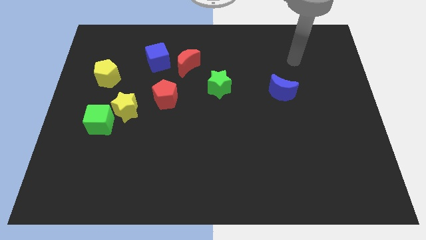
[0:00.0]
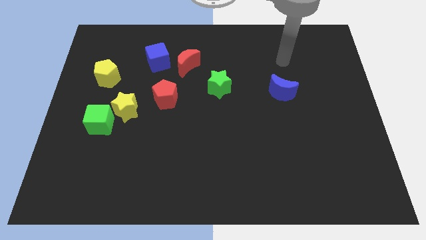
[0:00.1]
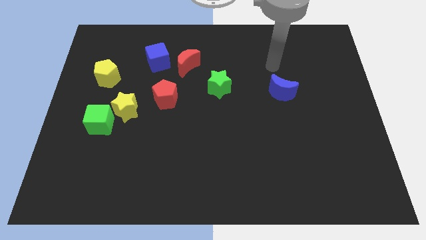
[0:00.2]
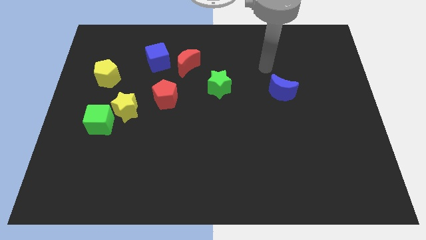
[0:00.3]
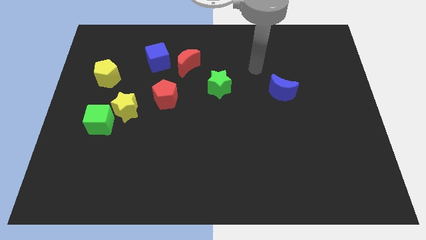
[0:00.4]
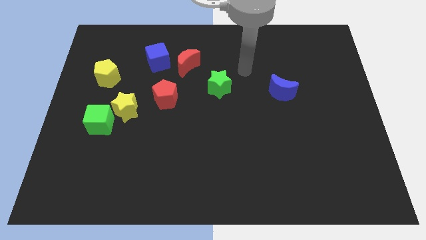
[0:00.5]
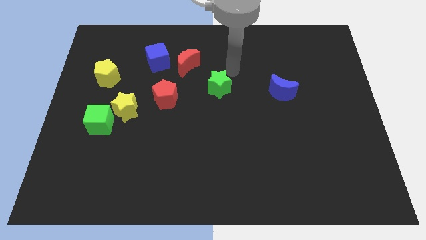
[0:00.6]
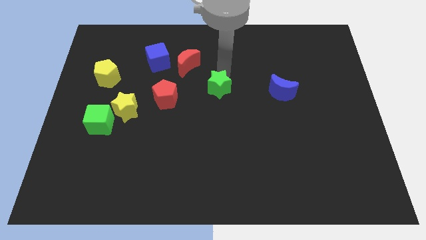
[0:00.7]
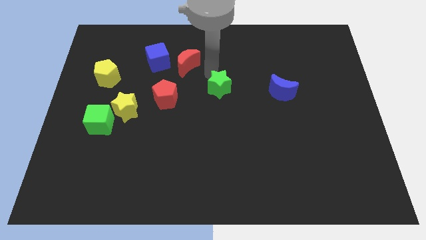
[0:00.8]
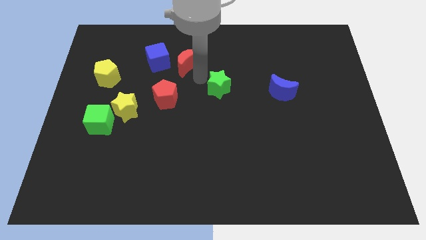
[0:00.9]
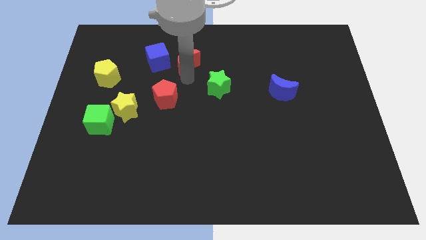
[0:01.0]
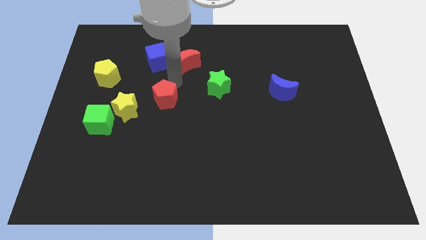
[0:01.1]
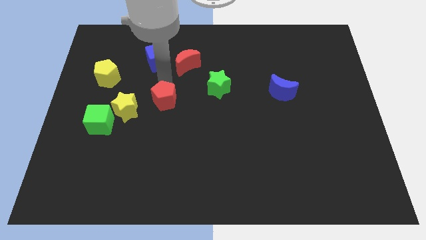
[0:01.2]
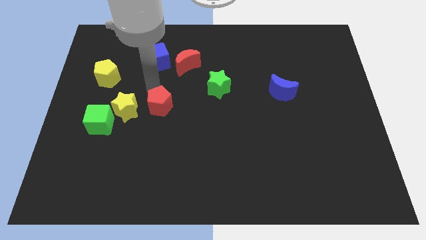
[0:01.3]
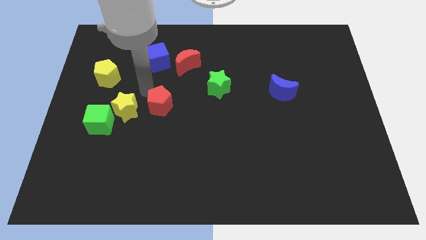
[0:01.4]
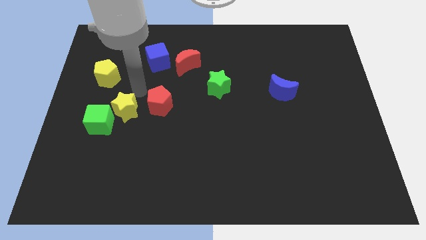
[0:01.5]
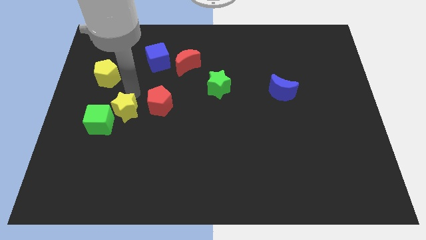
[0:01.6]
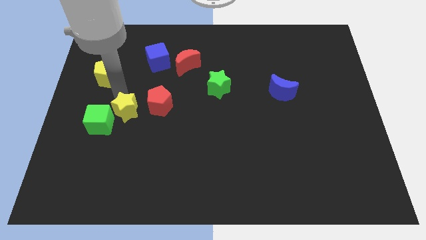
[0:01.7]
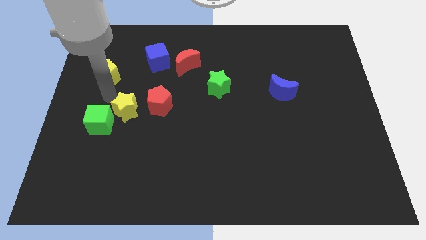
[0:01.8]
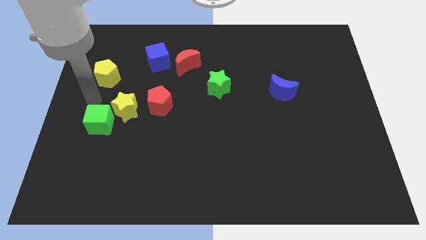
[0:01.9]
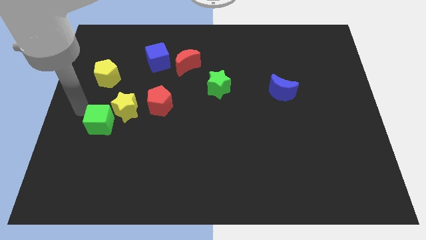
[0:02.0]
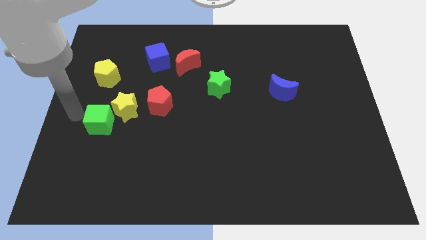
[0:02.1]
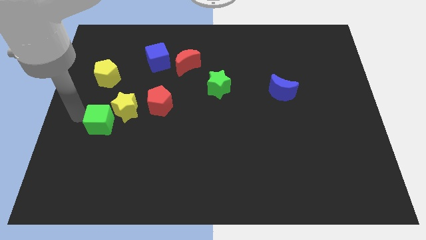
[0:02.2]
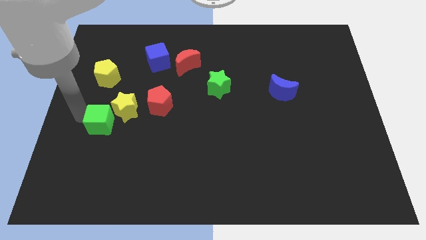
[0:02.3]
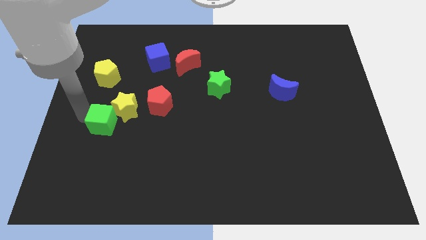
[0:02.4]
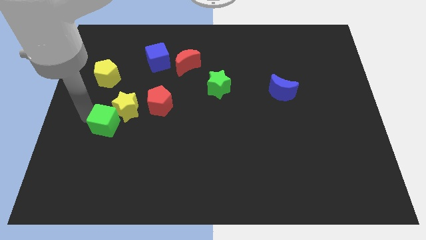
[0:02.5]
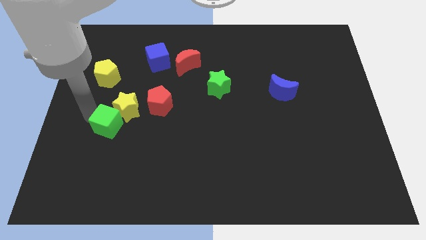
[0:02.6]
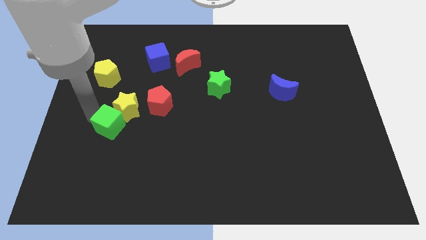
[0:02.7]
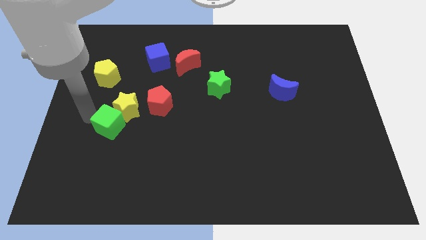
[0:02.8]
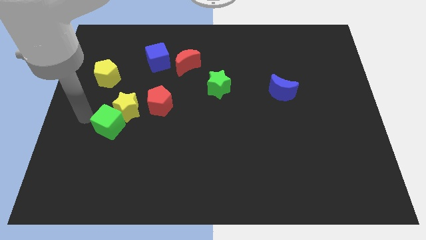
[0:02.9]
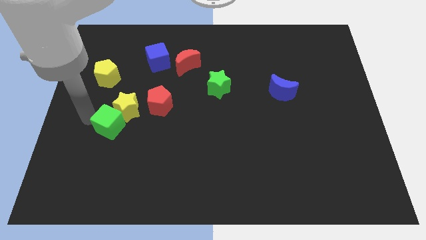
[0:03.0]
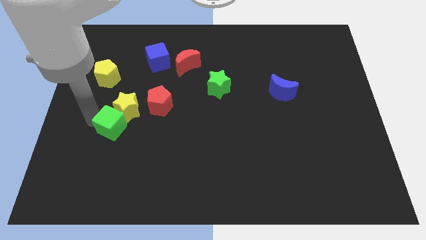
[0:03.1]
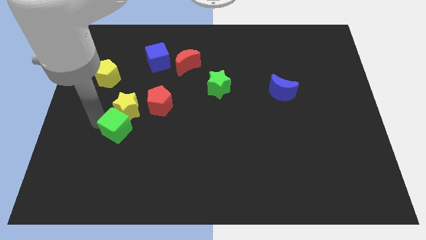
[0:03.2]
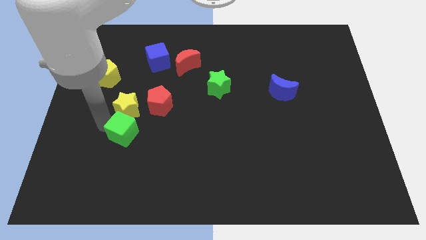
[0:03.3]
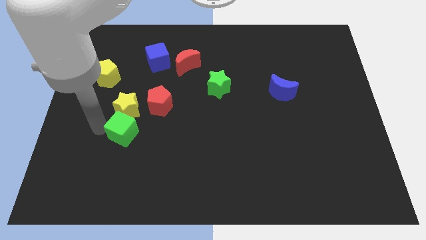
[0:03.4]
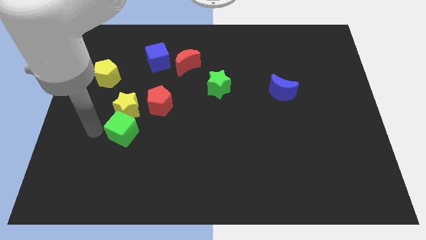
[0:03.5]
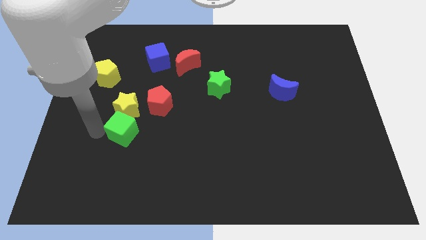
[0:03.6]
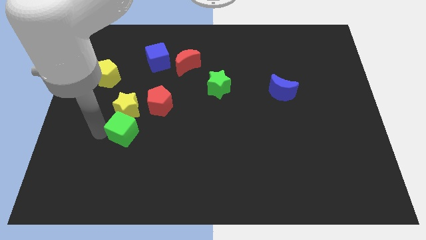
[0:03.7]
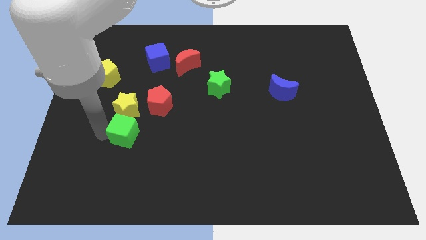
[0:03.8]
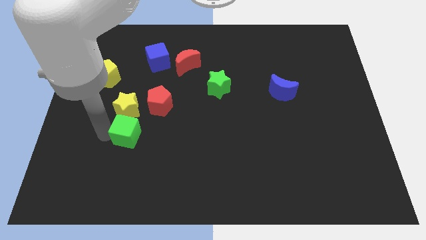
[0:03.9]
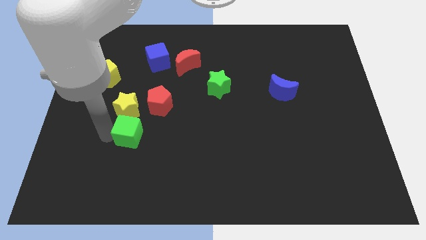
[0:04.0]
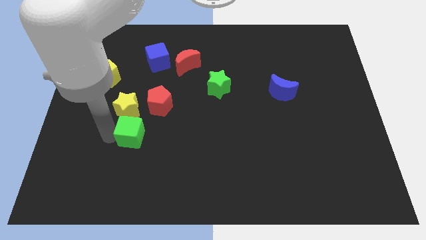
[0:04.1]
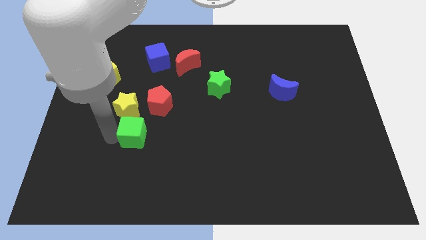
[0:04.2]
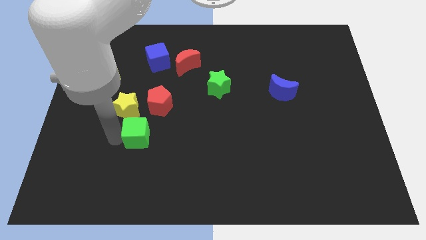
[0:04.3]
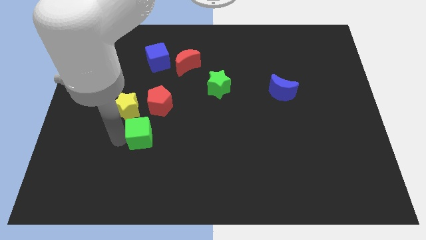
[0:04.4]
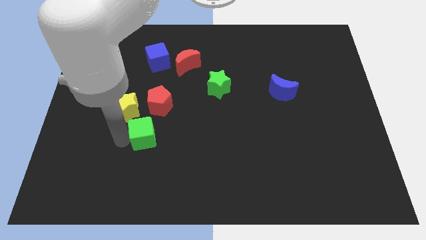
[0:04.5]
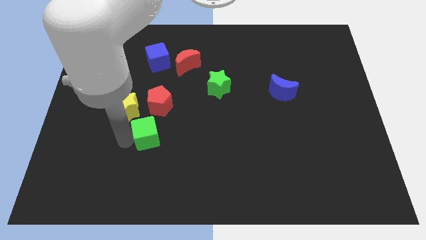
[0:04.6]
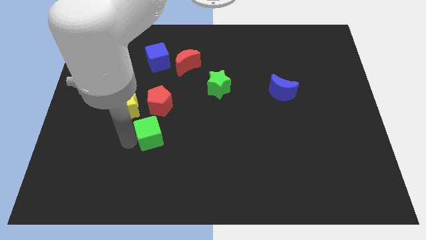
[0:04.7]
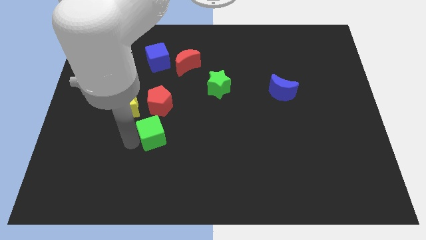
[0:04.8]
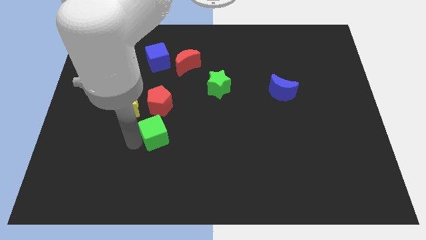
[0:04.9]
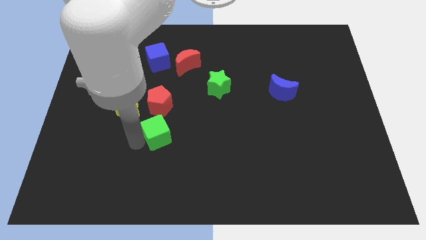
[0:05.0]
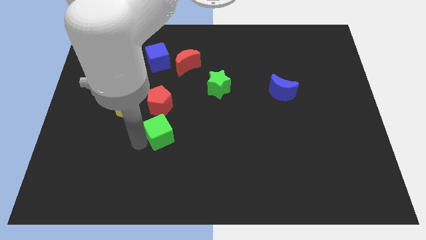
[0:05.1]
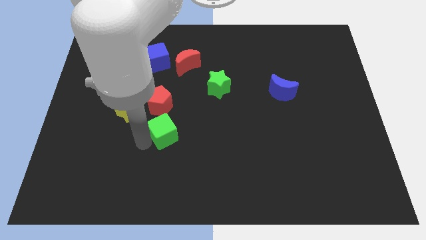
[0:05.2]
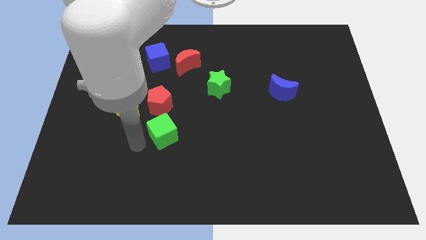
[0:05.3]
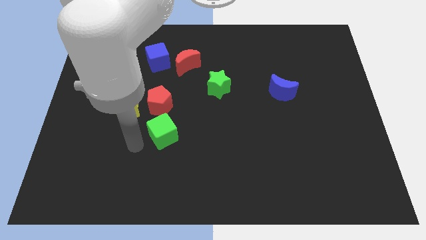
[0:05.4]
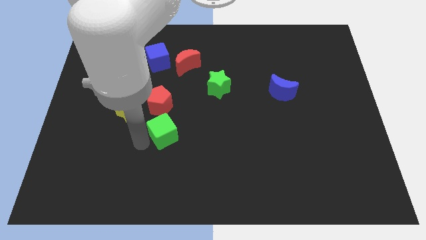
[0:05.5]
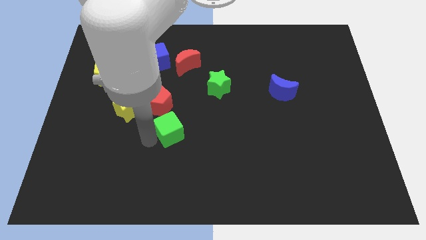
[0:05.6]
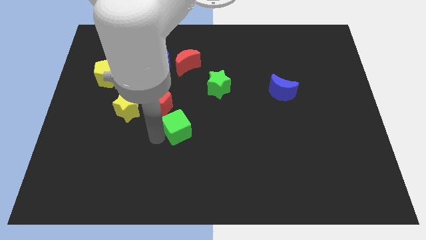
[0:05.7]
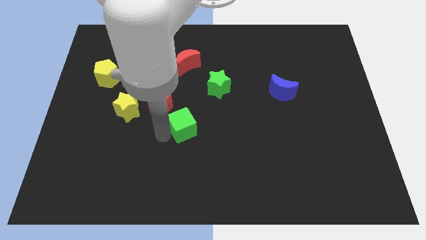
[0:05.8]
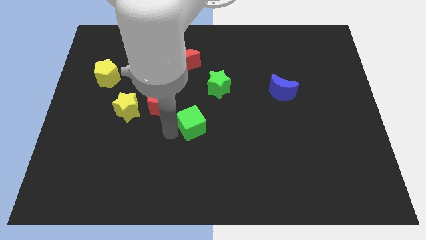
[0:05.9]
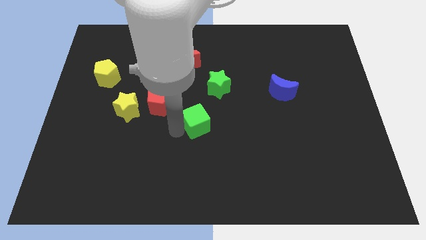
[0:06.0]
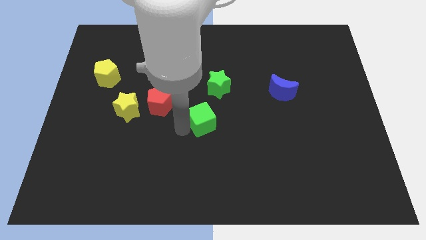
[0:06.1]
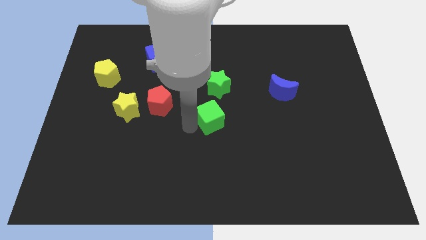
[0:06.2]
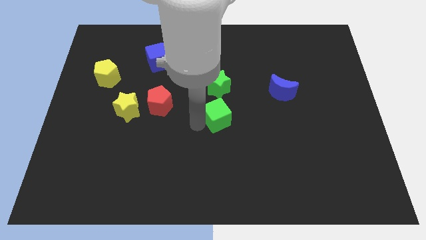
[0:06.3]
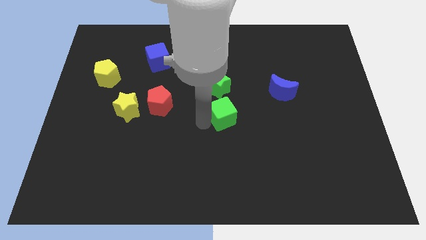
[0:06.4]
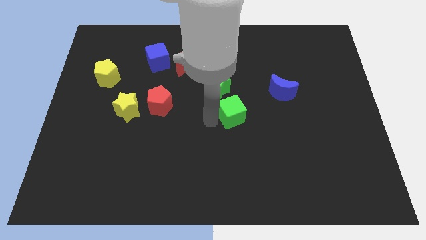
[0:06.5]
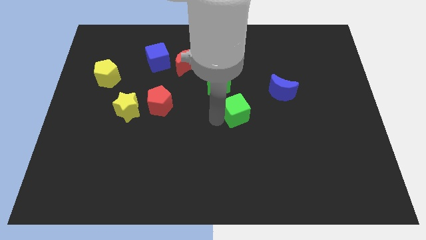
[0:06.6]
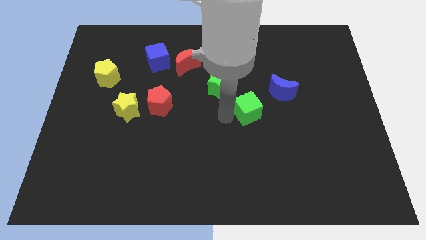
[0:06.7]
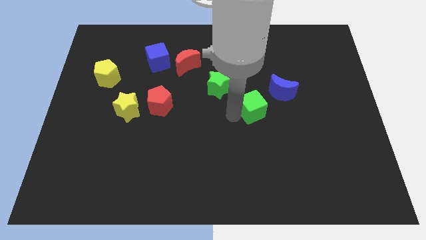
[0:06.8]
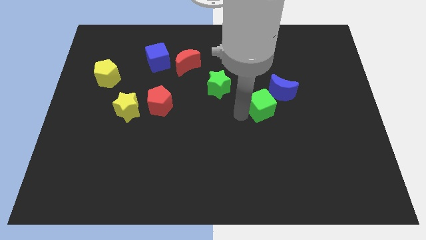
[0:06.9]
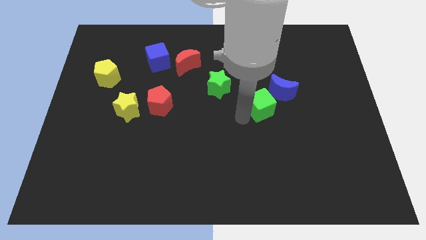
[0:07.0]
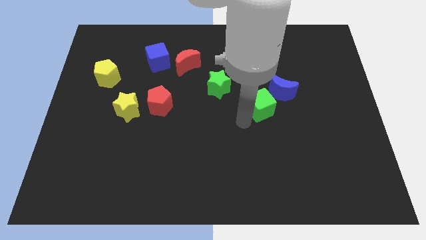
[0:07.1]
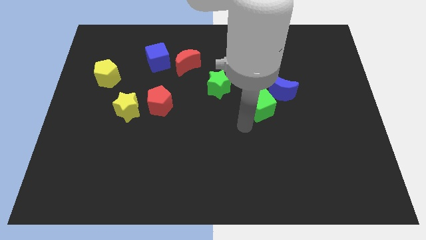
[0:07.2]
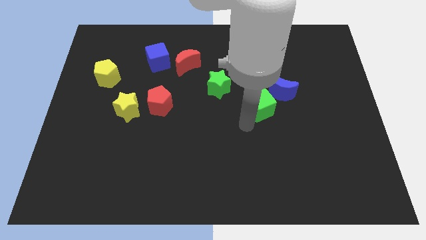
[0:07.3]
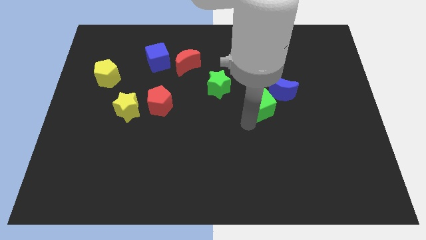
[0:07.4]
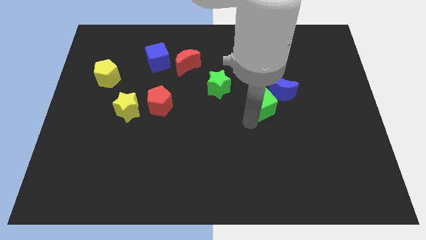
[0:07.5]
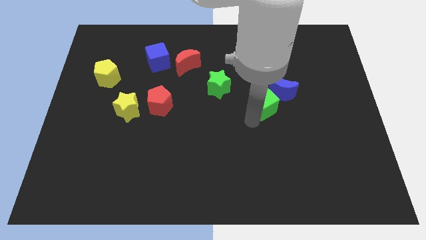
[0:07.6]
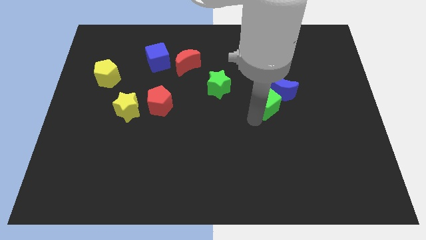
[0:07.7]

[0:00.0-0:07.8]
put the green cube close to the blue moon
